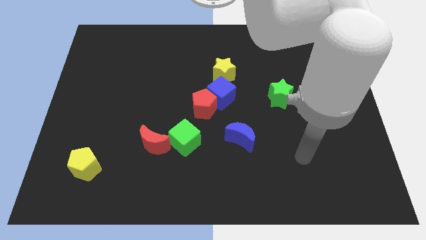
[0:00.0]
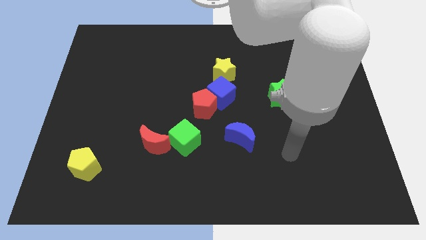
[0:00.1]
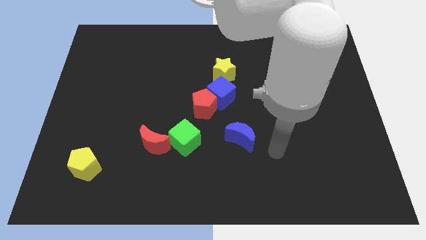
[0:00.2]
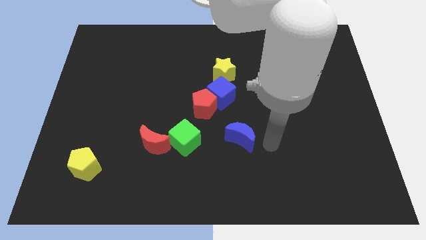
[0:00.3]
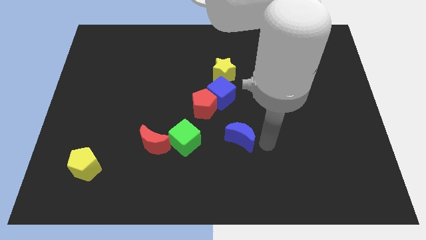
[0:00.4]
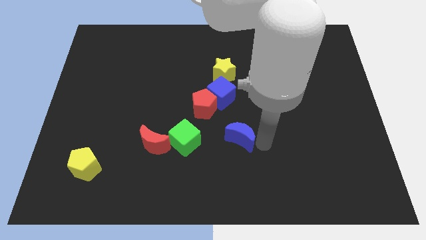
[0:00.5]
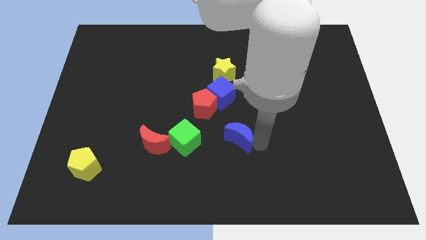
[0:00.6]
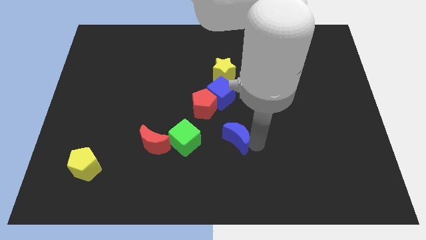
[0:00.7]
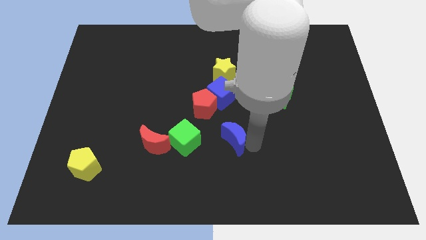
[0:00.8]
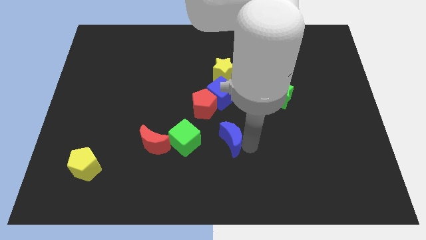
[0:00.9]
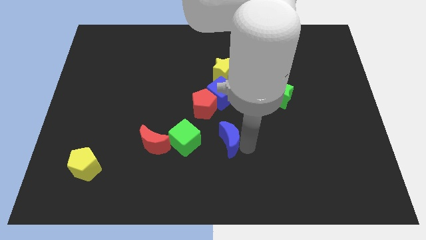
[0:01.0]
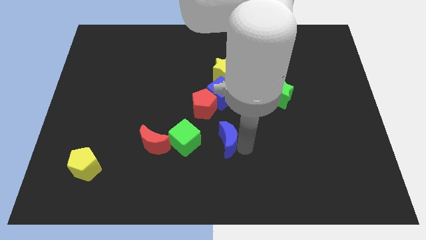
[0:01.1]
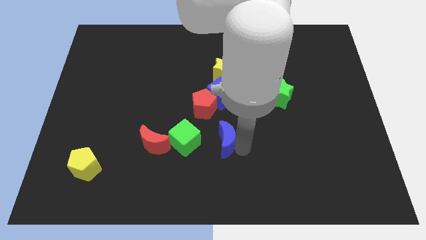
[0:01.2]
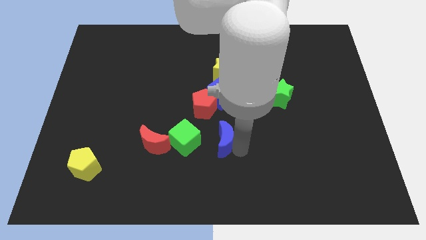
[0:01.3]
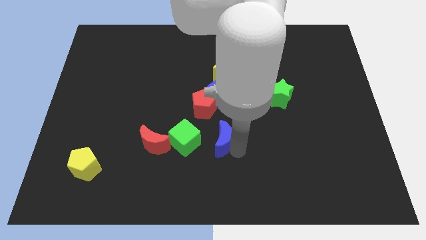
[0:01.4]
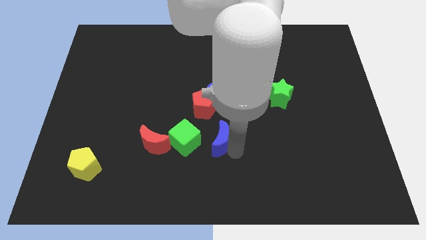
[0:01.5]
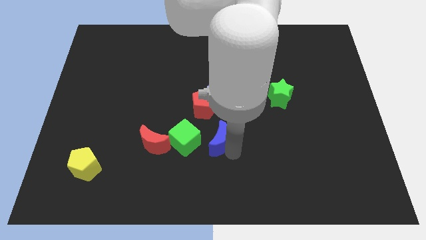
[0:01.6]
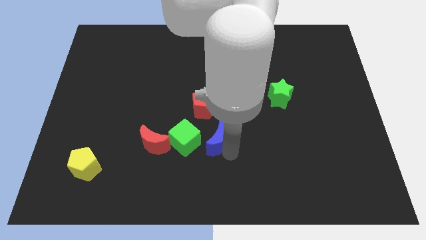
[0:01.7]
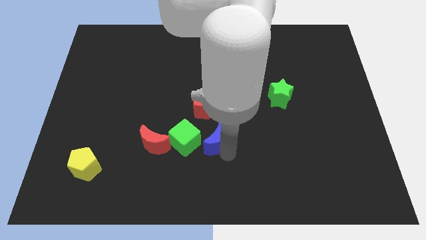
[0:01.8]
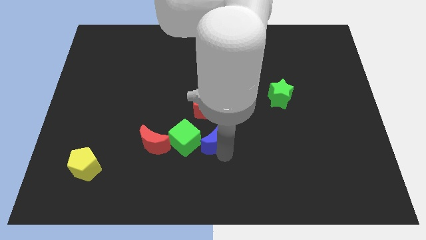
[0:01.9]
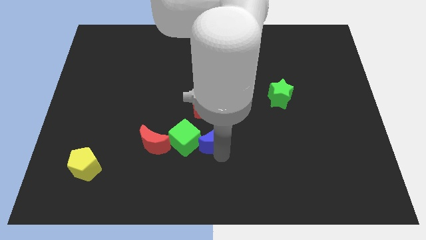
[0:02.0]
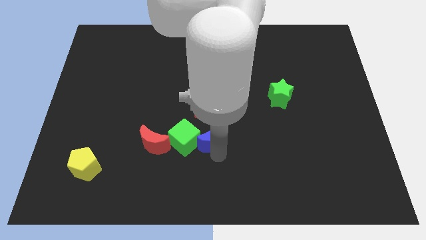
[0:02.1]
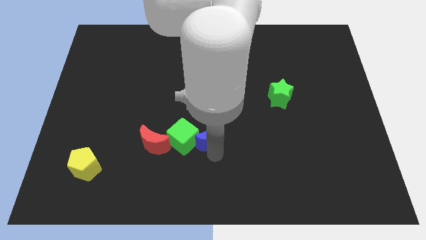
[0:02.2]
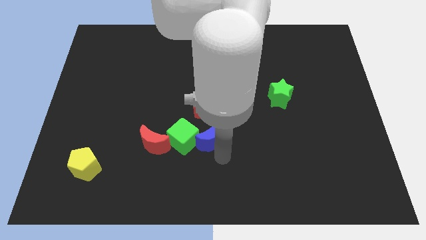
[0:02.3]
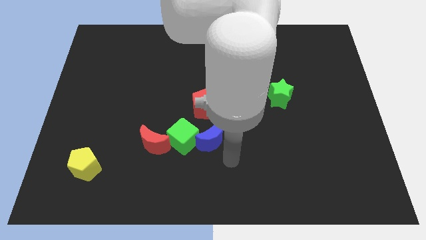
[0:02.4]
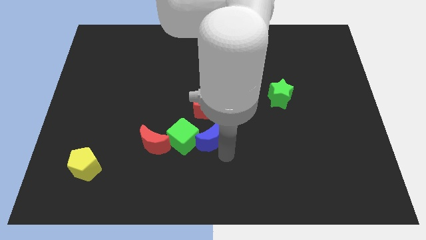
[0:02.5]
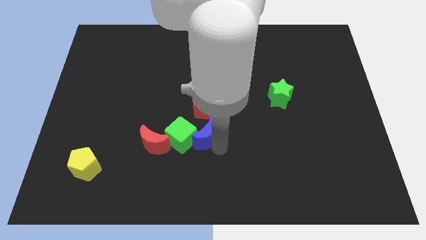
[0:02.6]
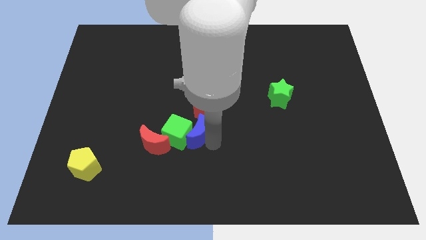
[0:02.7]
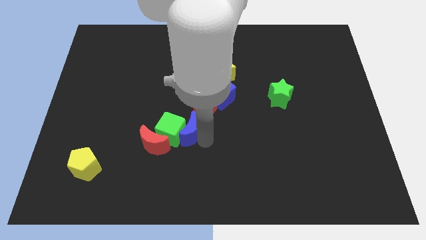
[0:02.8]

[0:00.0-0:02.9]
move the blue moon a little upwards and then left

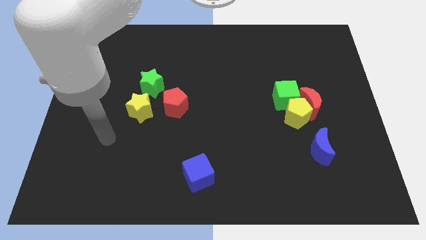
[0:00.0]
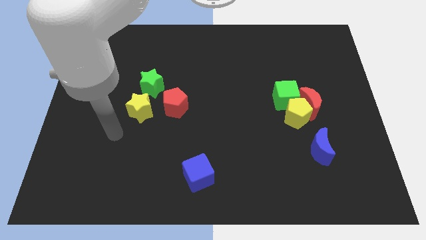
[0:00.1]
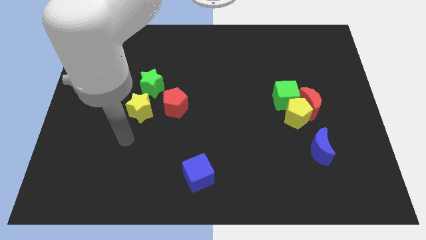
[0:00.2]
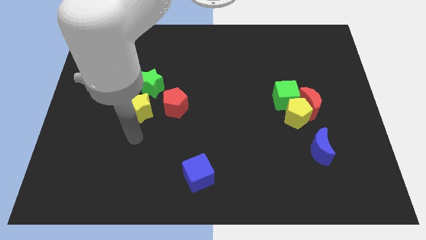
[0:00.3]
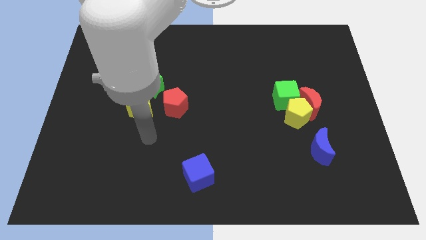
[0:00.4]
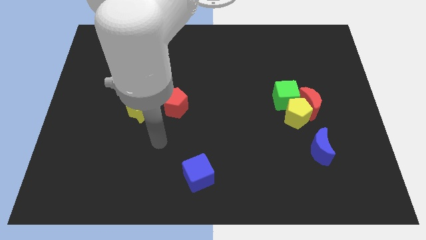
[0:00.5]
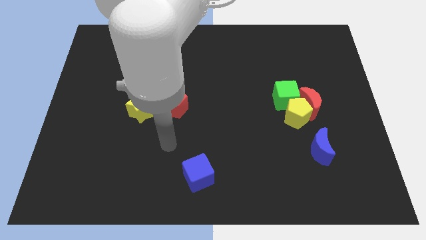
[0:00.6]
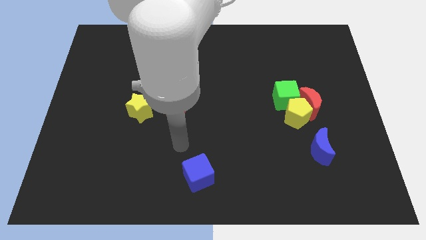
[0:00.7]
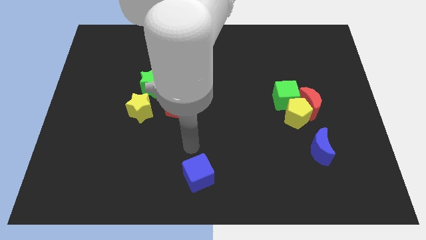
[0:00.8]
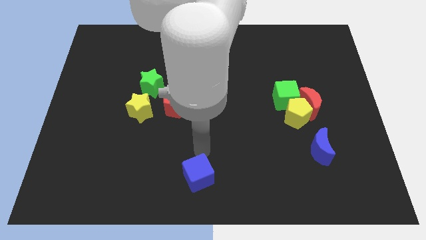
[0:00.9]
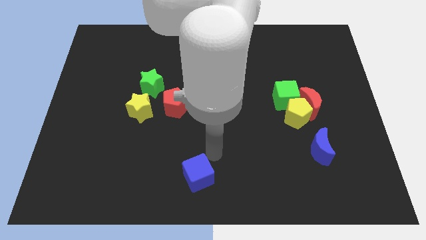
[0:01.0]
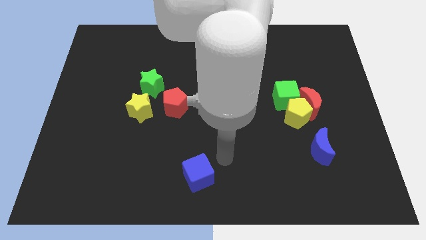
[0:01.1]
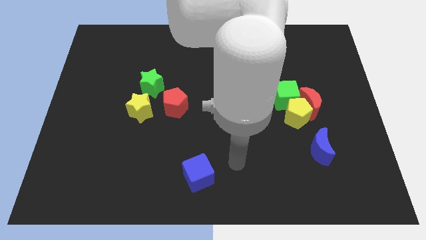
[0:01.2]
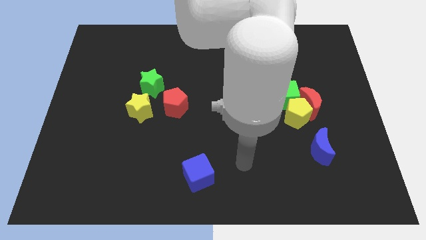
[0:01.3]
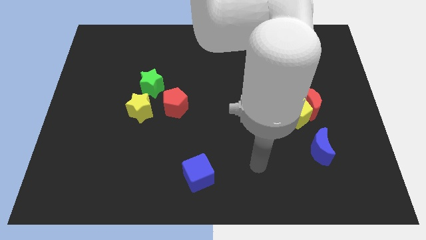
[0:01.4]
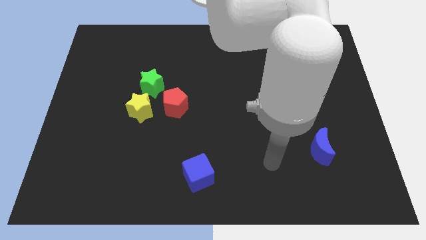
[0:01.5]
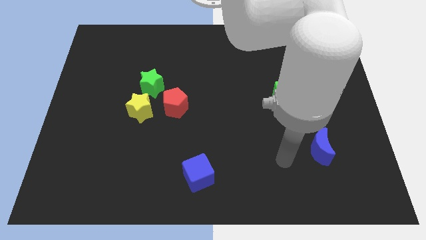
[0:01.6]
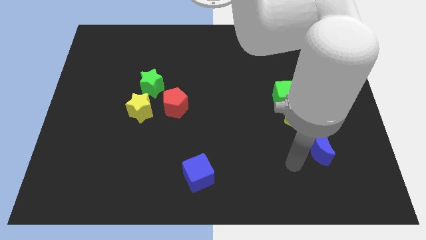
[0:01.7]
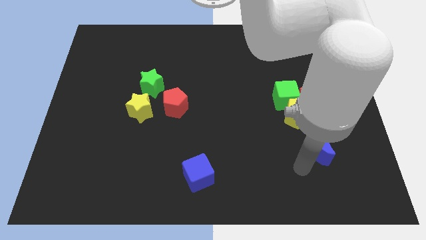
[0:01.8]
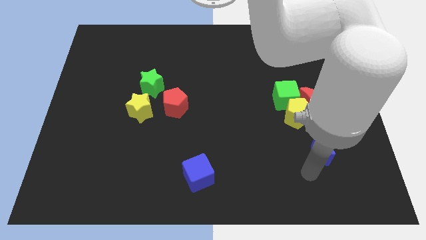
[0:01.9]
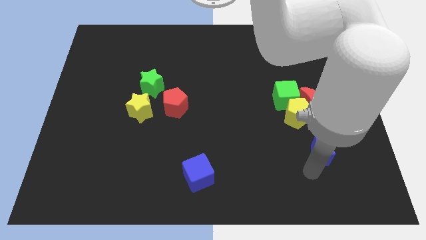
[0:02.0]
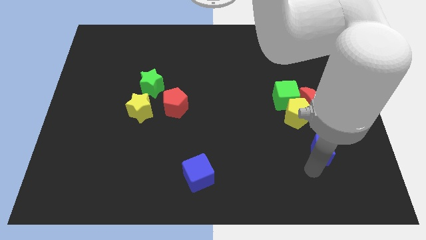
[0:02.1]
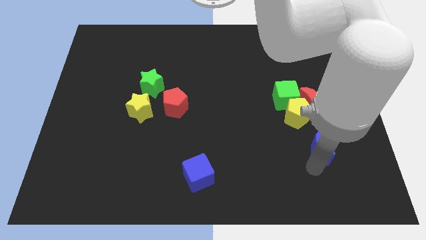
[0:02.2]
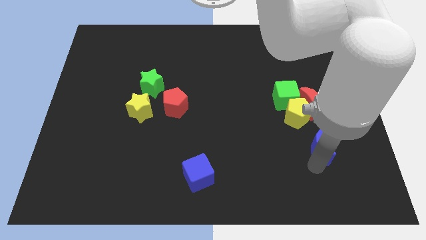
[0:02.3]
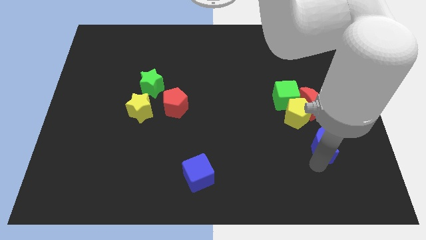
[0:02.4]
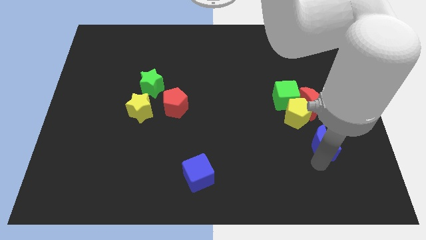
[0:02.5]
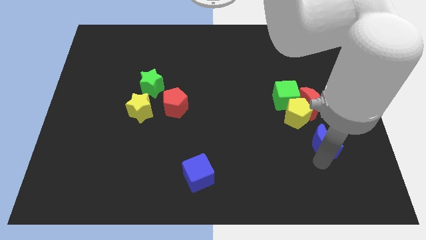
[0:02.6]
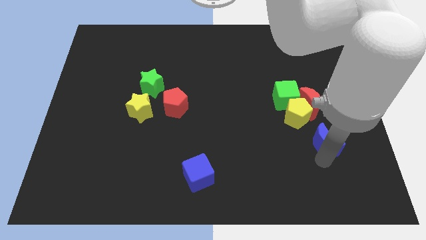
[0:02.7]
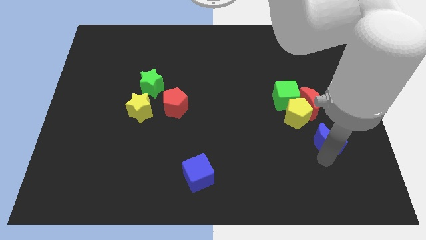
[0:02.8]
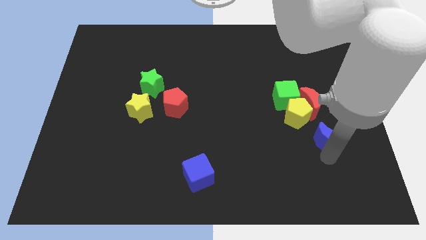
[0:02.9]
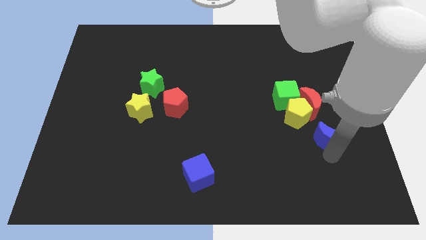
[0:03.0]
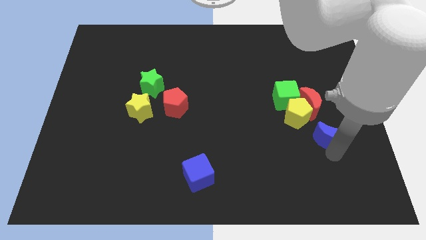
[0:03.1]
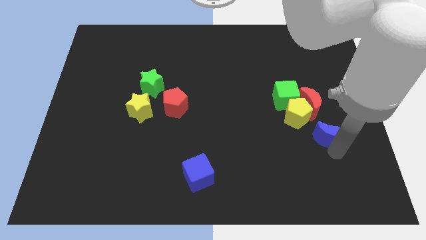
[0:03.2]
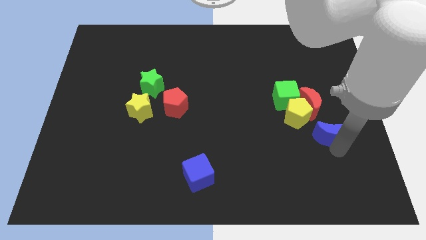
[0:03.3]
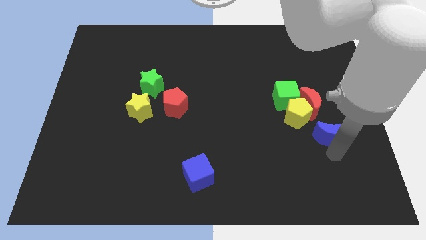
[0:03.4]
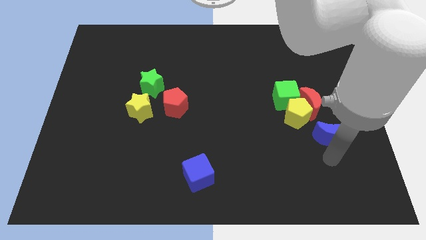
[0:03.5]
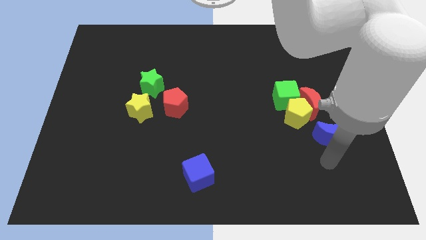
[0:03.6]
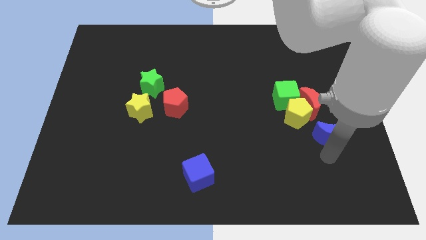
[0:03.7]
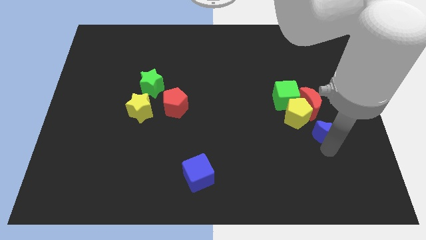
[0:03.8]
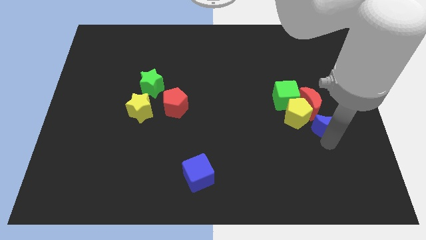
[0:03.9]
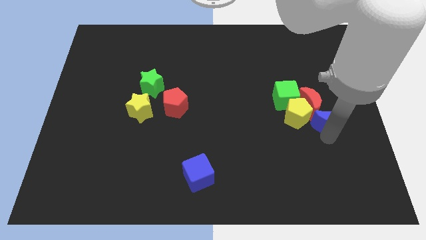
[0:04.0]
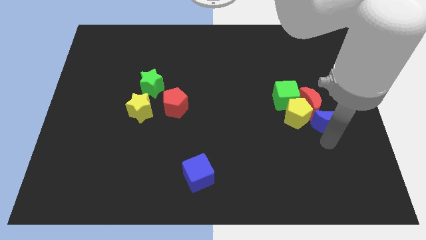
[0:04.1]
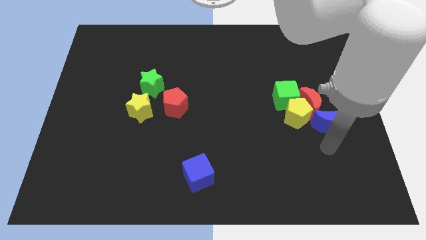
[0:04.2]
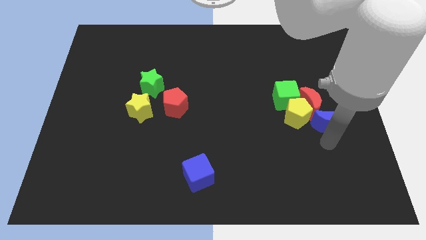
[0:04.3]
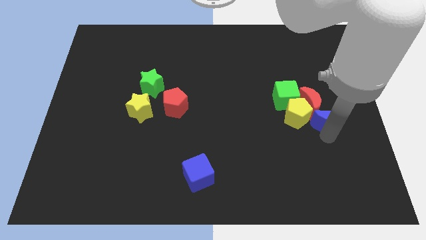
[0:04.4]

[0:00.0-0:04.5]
slide the blue moon slightly up

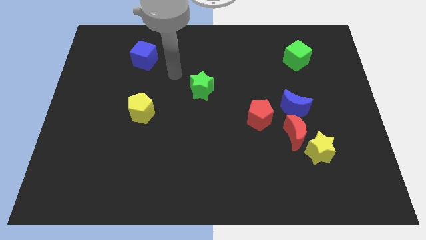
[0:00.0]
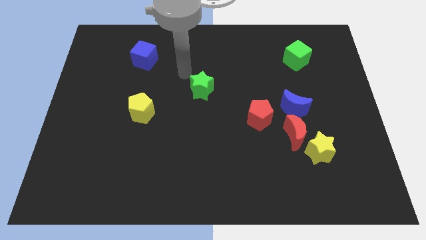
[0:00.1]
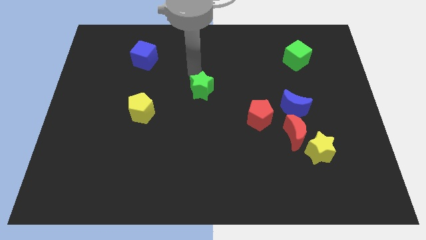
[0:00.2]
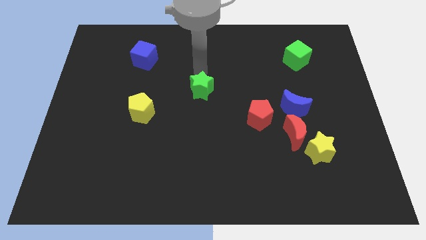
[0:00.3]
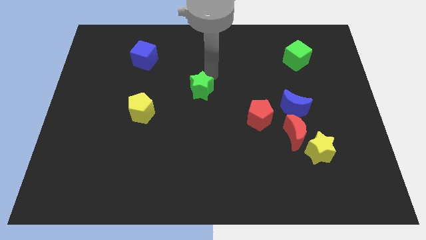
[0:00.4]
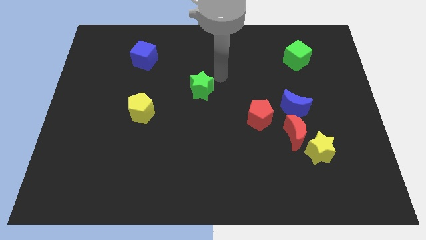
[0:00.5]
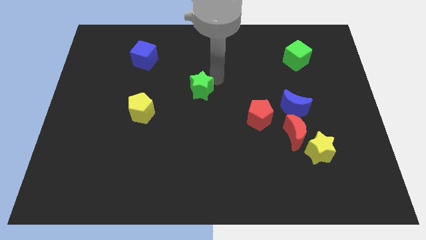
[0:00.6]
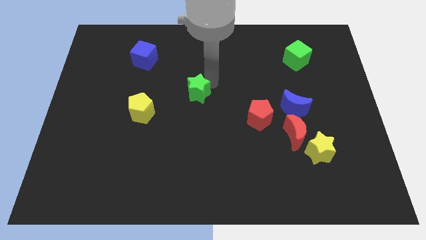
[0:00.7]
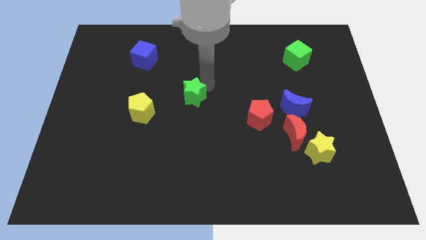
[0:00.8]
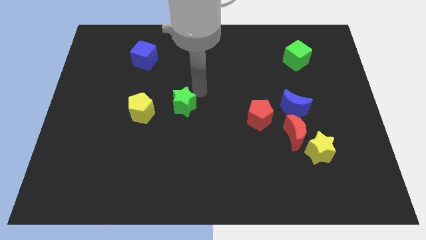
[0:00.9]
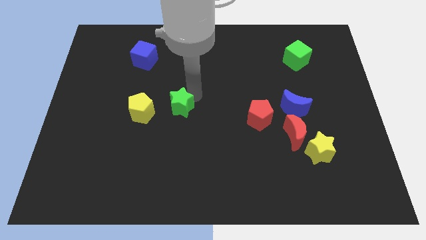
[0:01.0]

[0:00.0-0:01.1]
slide the green star down and to the left slightly
